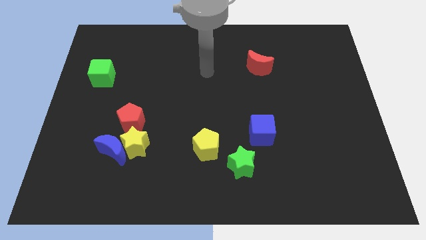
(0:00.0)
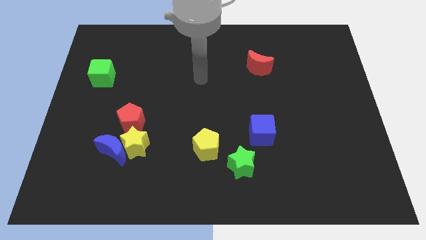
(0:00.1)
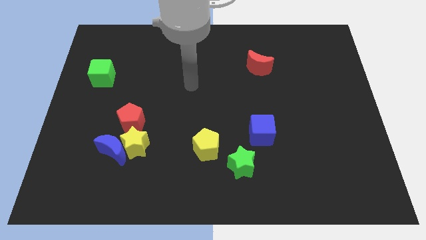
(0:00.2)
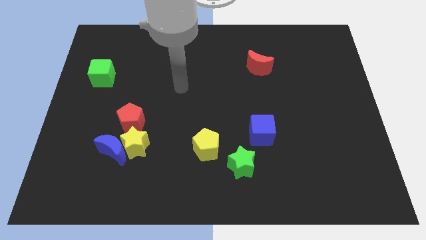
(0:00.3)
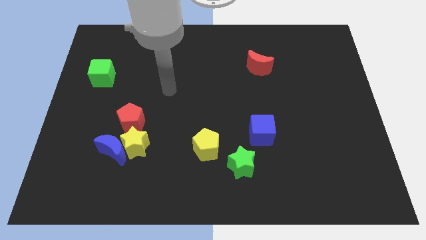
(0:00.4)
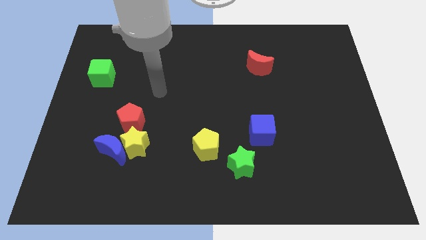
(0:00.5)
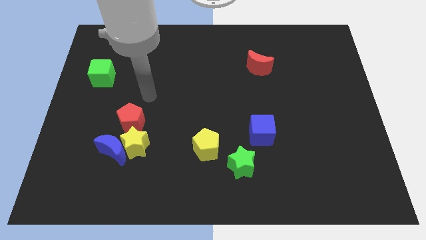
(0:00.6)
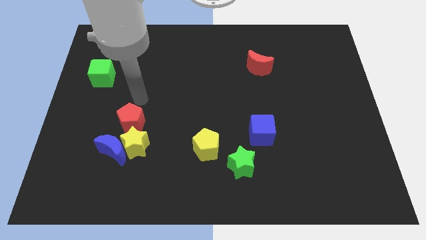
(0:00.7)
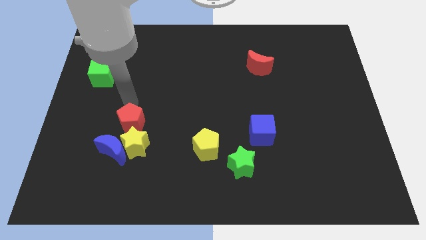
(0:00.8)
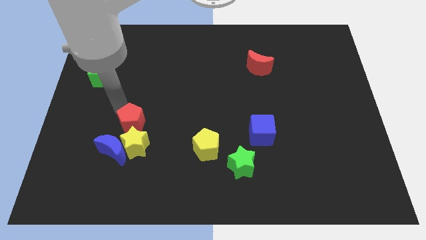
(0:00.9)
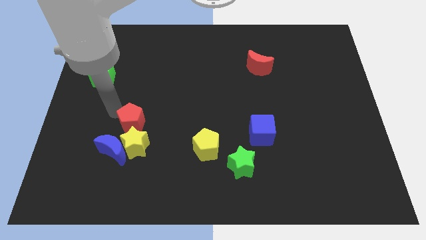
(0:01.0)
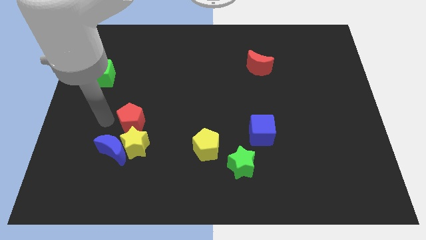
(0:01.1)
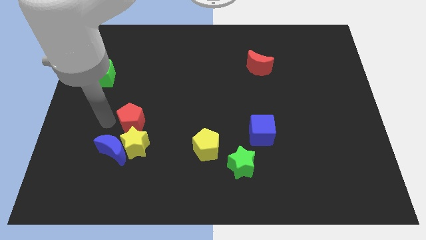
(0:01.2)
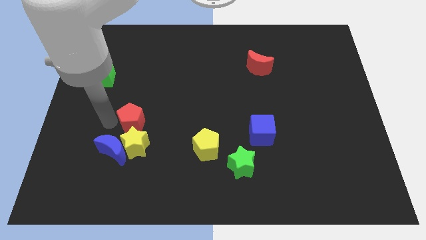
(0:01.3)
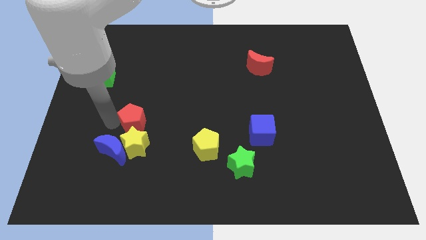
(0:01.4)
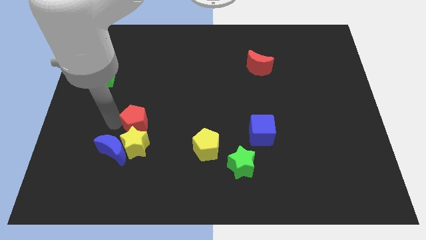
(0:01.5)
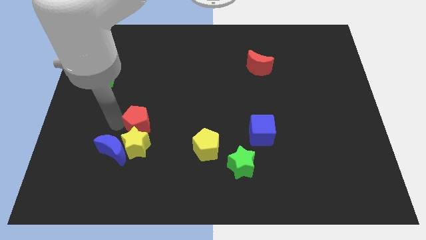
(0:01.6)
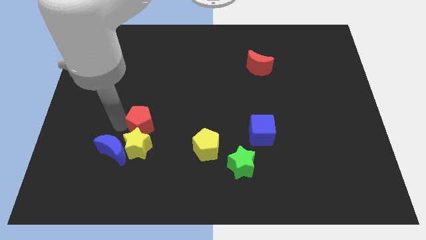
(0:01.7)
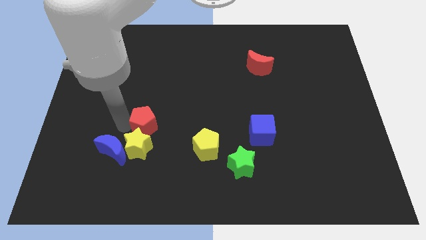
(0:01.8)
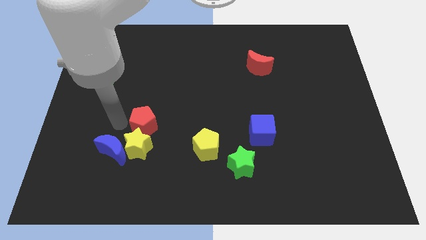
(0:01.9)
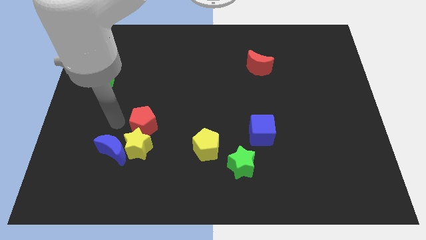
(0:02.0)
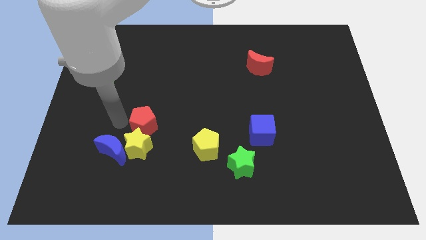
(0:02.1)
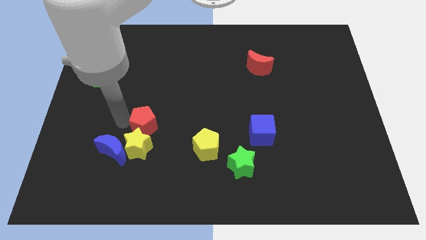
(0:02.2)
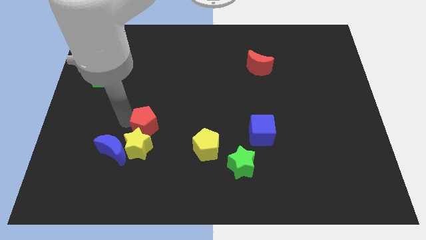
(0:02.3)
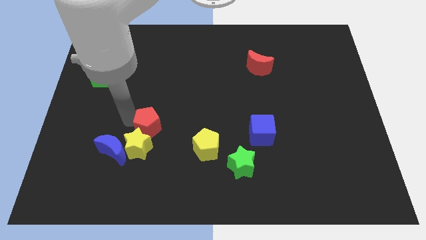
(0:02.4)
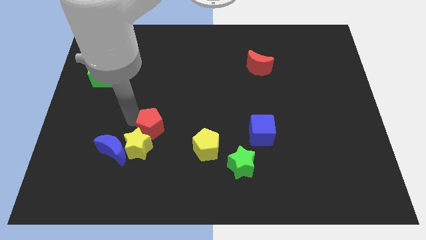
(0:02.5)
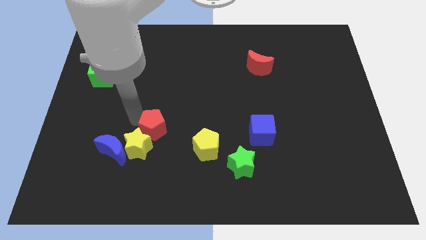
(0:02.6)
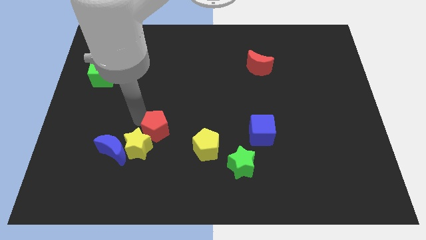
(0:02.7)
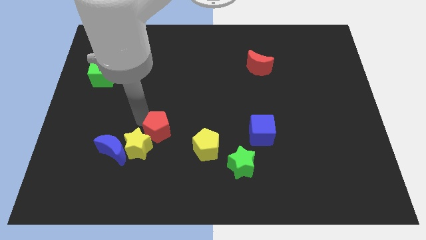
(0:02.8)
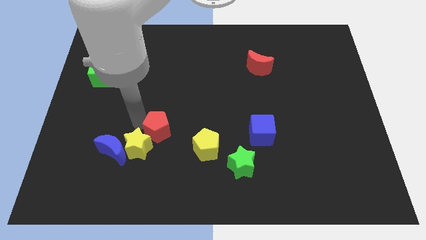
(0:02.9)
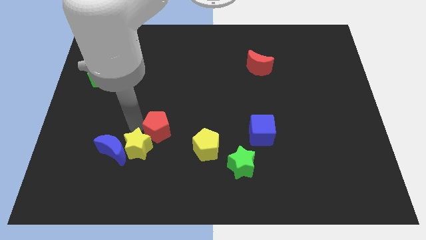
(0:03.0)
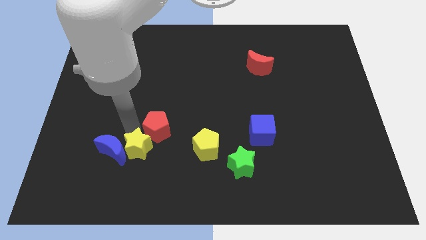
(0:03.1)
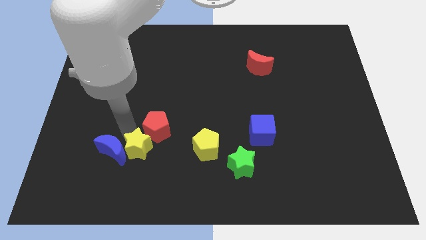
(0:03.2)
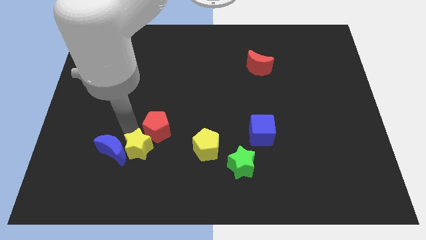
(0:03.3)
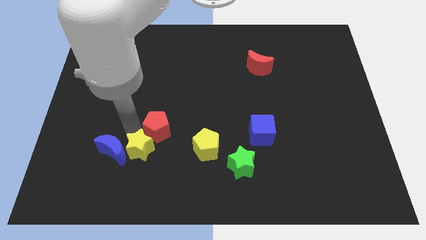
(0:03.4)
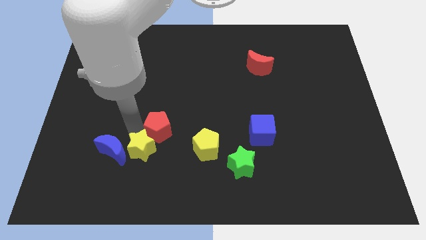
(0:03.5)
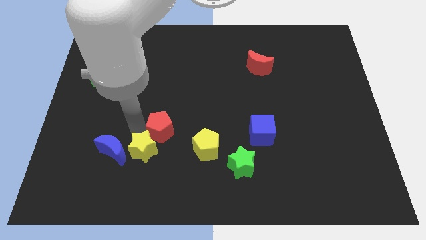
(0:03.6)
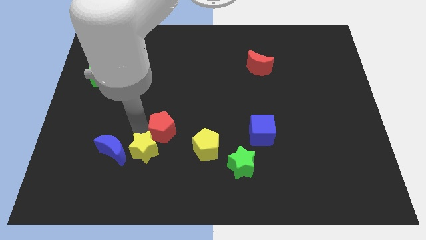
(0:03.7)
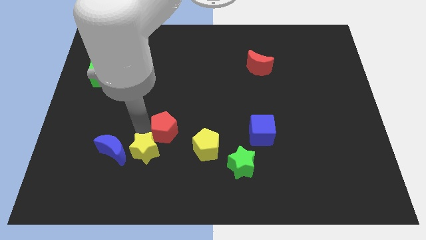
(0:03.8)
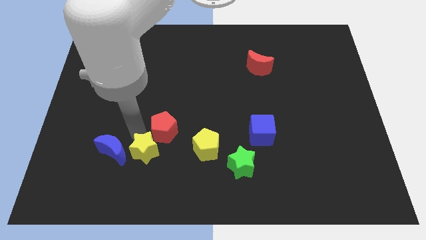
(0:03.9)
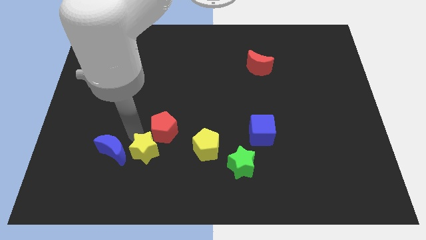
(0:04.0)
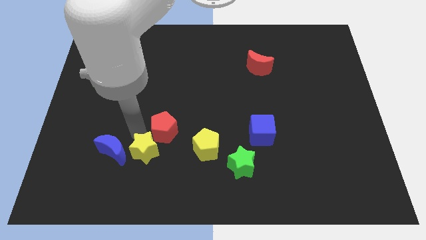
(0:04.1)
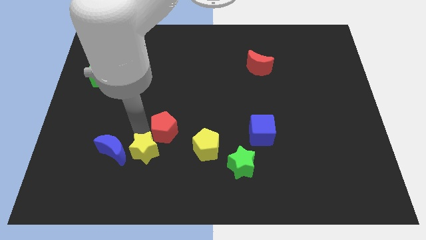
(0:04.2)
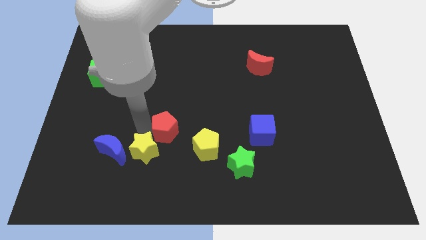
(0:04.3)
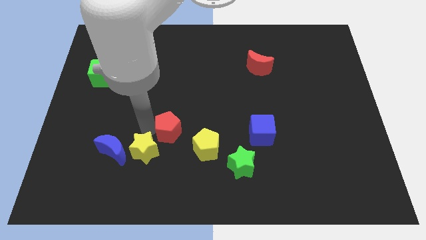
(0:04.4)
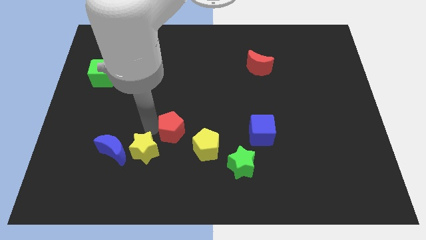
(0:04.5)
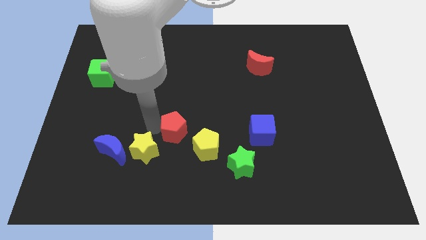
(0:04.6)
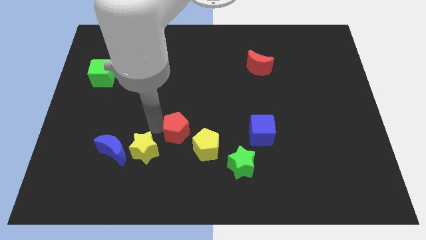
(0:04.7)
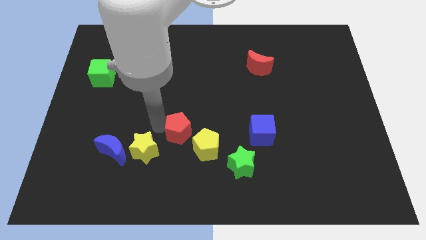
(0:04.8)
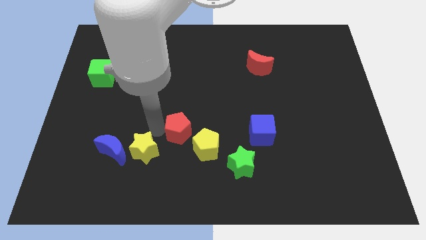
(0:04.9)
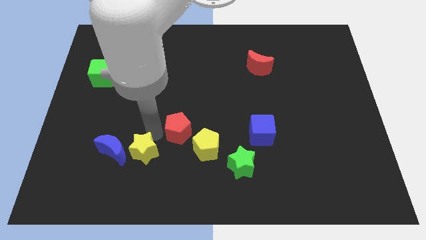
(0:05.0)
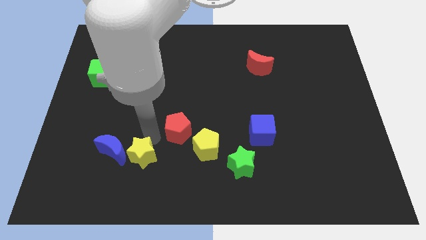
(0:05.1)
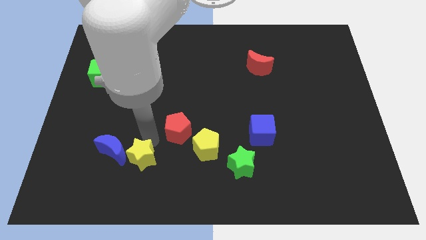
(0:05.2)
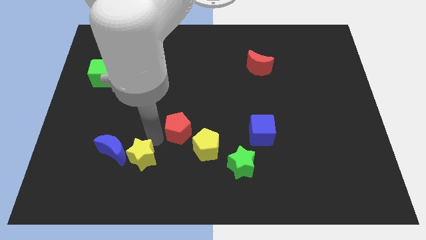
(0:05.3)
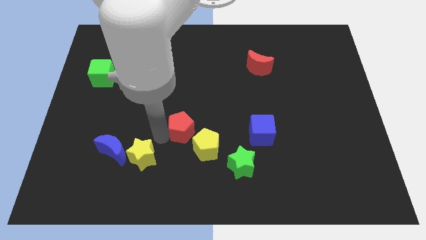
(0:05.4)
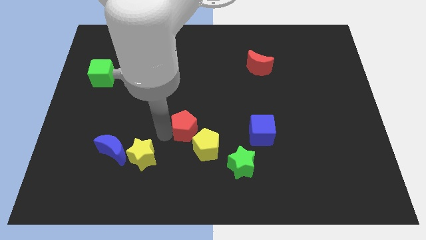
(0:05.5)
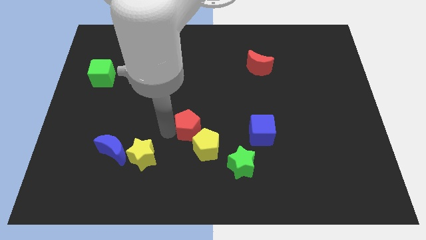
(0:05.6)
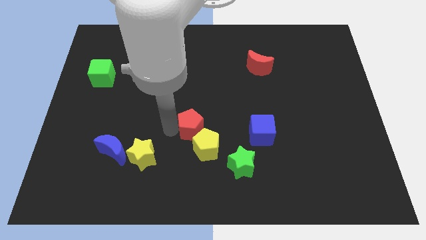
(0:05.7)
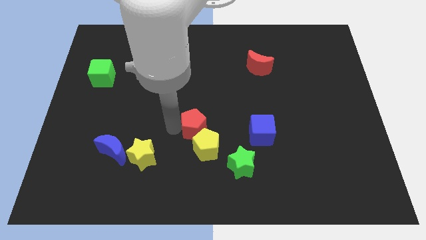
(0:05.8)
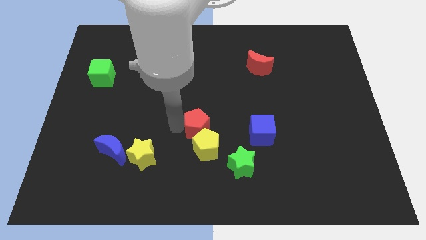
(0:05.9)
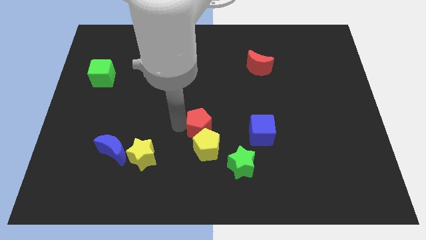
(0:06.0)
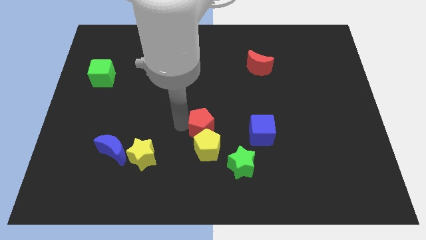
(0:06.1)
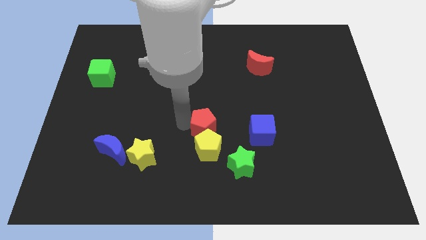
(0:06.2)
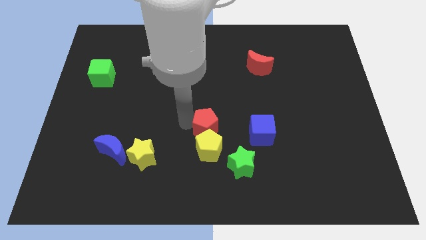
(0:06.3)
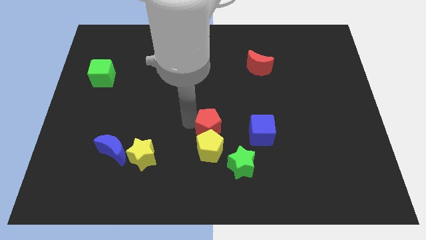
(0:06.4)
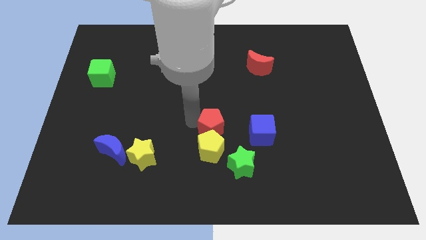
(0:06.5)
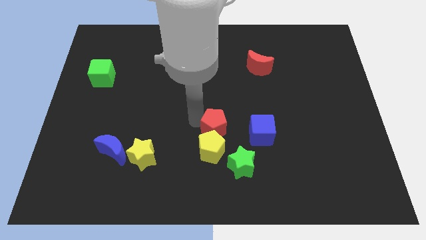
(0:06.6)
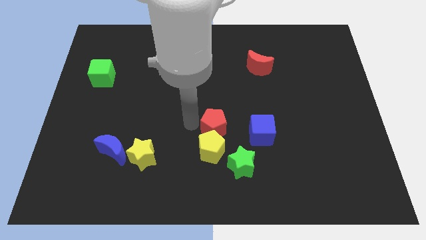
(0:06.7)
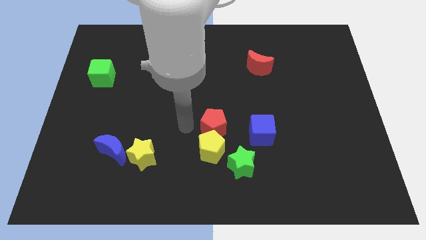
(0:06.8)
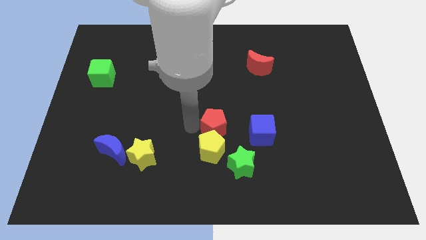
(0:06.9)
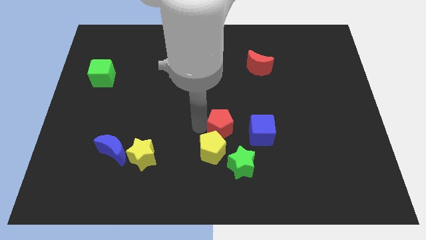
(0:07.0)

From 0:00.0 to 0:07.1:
slide the red pentagon above the green star
